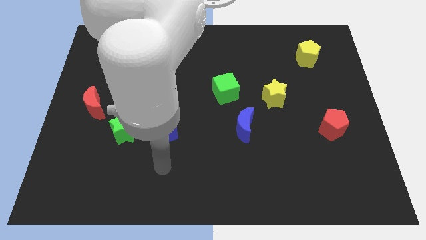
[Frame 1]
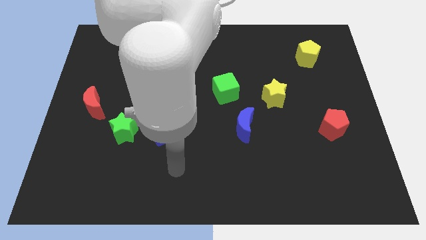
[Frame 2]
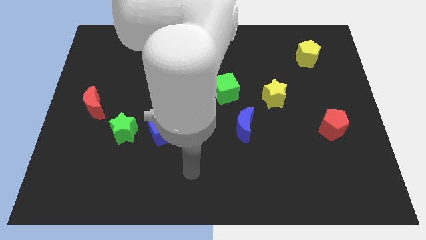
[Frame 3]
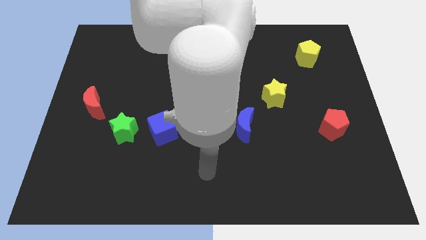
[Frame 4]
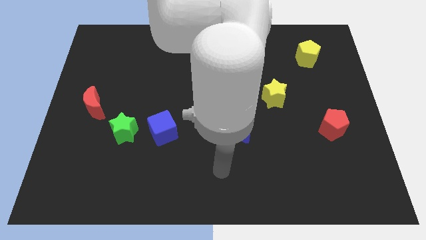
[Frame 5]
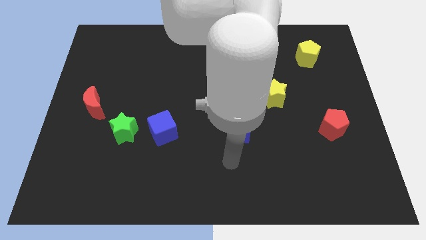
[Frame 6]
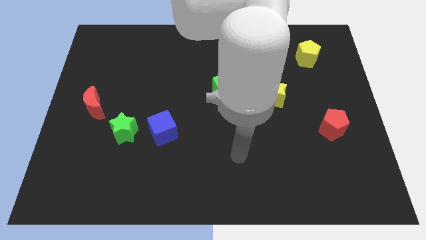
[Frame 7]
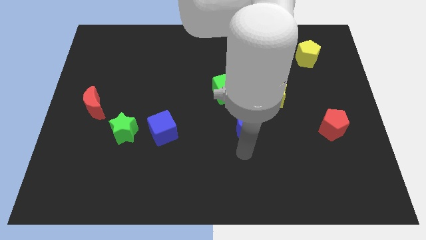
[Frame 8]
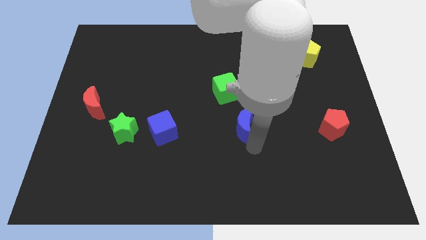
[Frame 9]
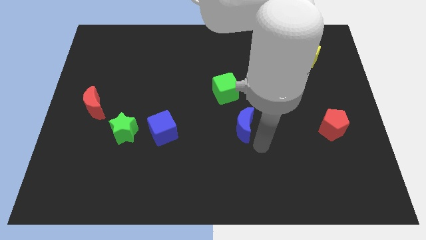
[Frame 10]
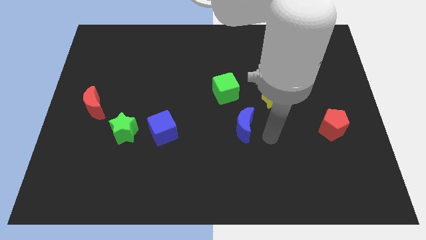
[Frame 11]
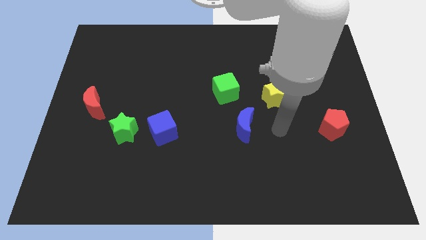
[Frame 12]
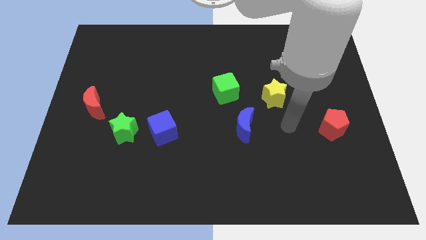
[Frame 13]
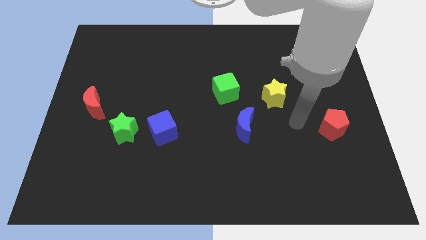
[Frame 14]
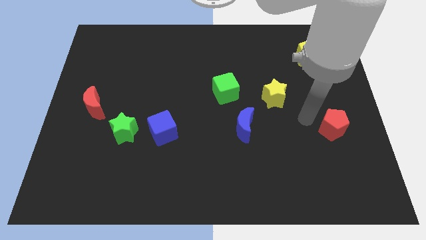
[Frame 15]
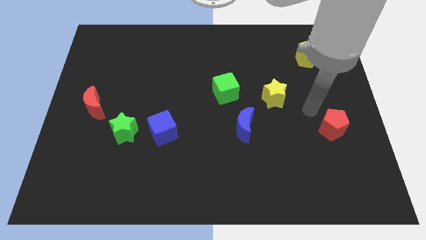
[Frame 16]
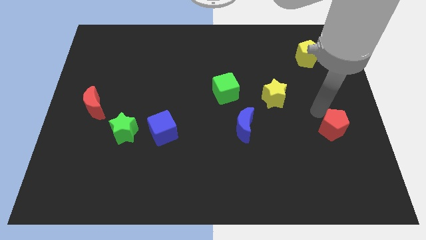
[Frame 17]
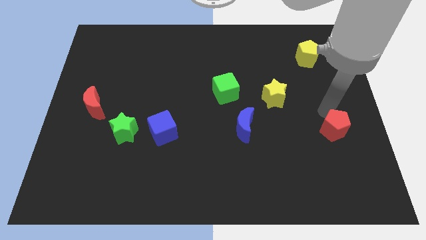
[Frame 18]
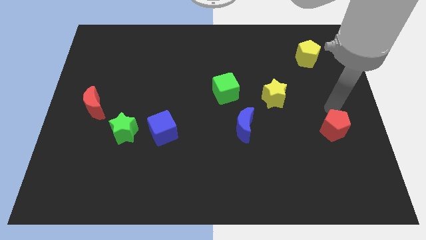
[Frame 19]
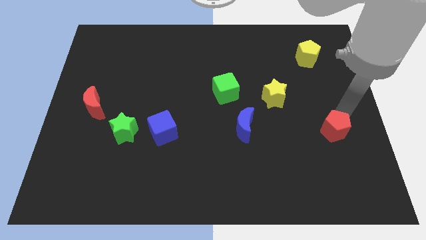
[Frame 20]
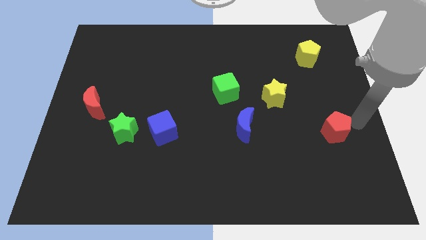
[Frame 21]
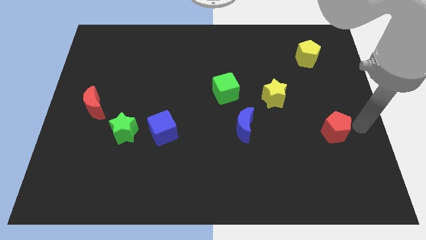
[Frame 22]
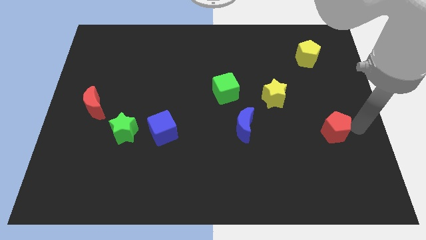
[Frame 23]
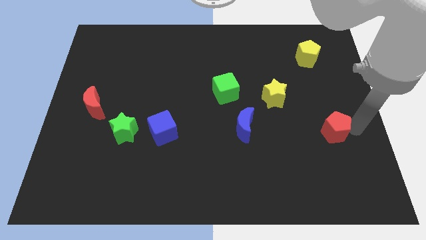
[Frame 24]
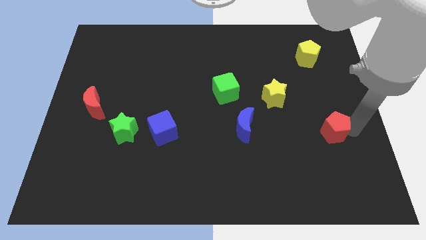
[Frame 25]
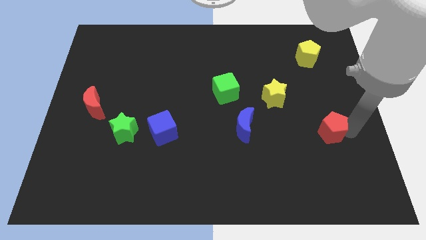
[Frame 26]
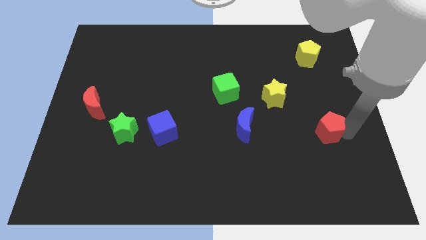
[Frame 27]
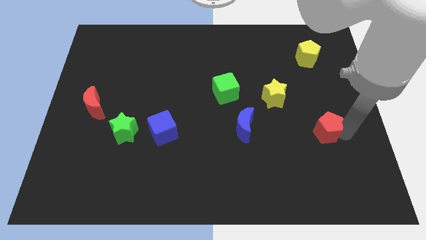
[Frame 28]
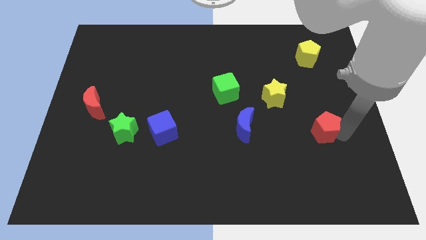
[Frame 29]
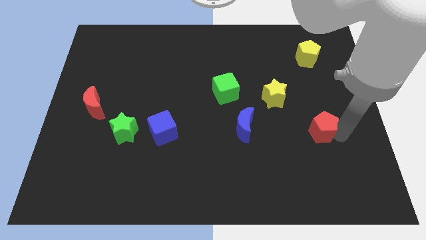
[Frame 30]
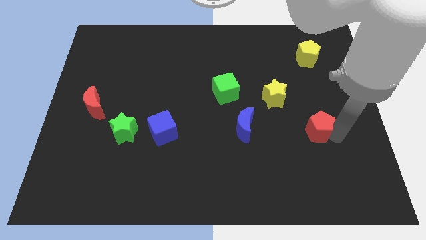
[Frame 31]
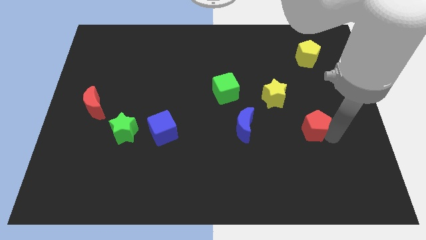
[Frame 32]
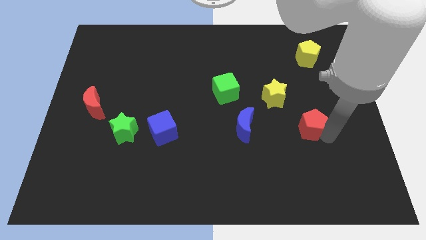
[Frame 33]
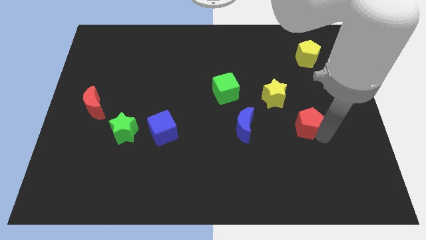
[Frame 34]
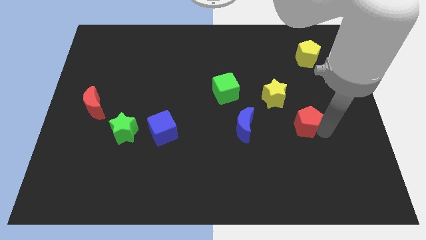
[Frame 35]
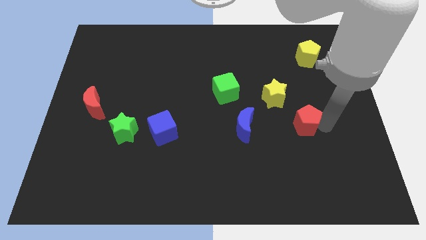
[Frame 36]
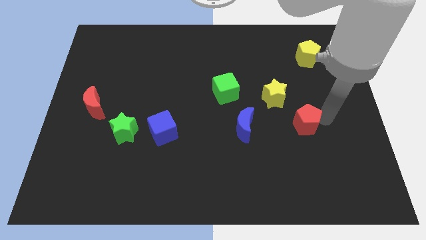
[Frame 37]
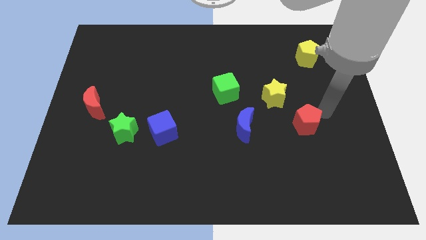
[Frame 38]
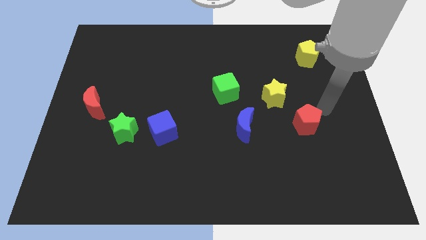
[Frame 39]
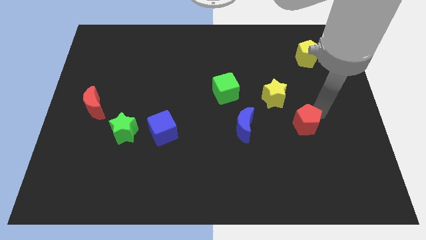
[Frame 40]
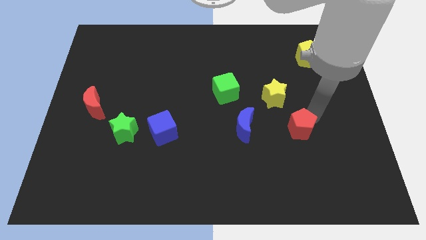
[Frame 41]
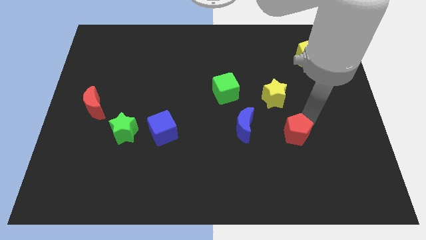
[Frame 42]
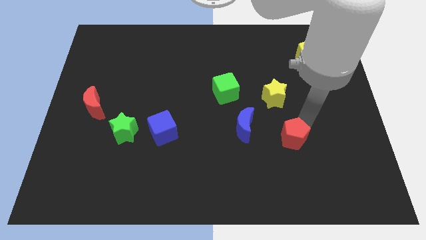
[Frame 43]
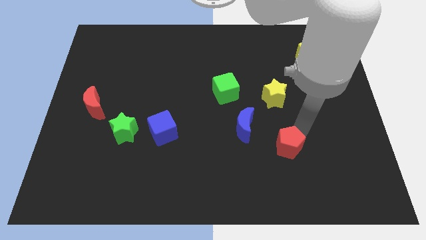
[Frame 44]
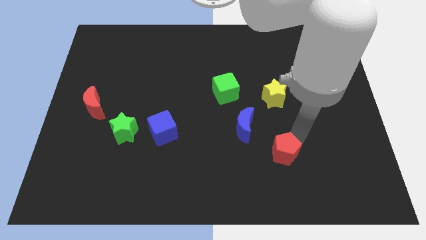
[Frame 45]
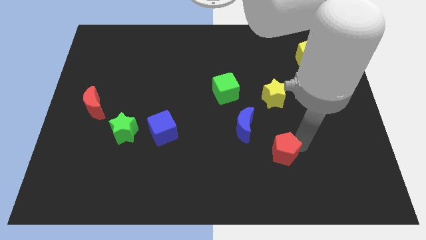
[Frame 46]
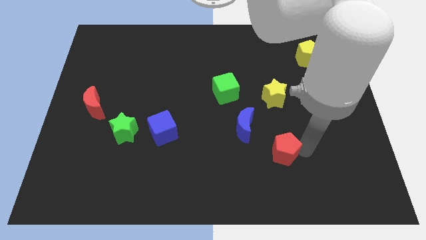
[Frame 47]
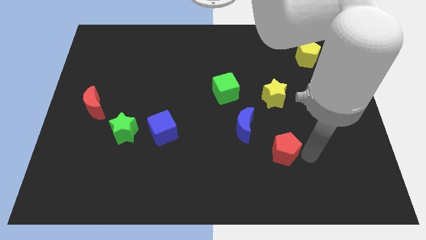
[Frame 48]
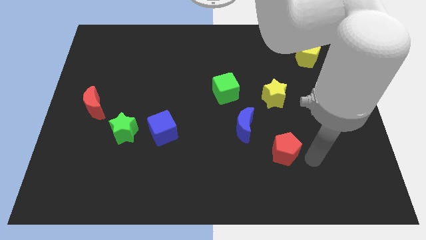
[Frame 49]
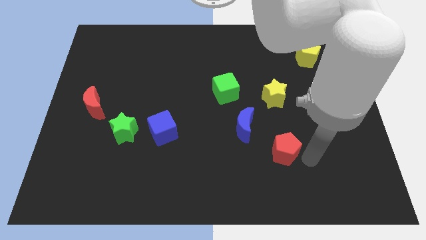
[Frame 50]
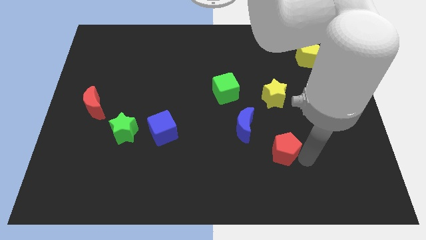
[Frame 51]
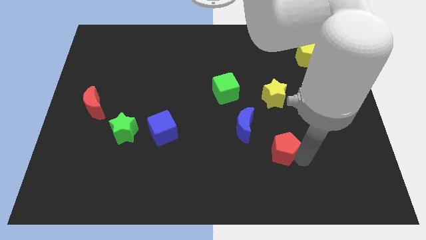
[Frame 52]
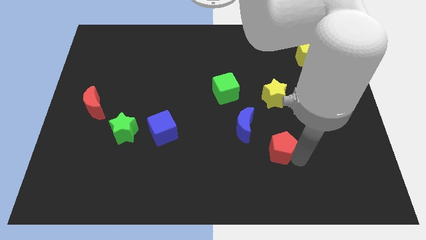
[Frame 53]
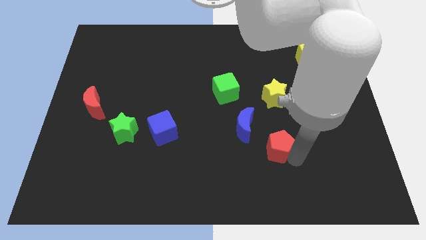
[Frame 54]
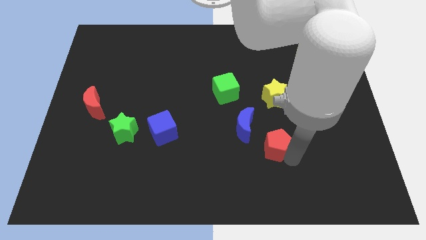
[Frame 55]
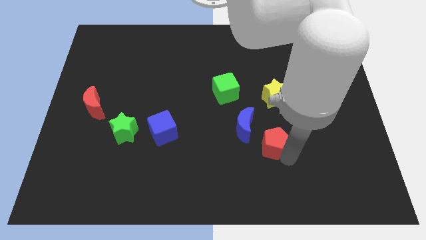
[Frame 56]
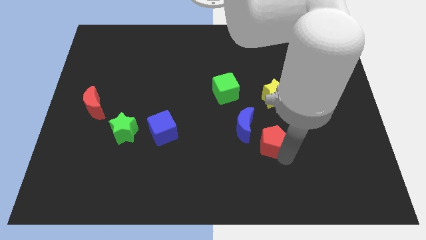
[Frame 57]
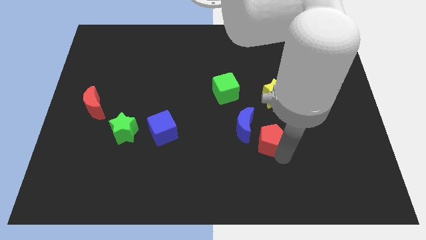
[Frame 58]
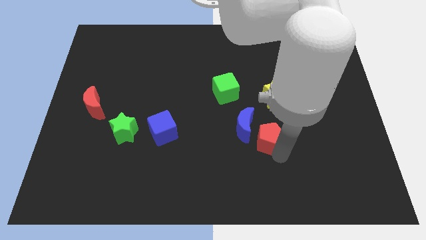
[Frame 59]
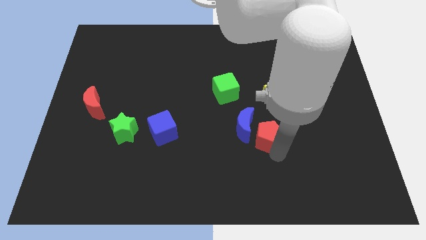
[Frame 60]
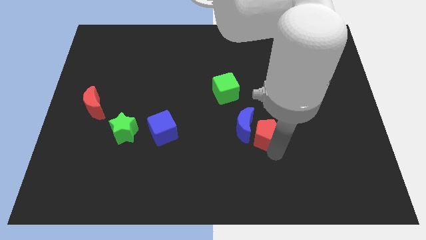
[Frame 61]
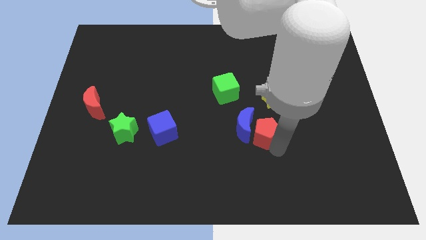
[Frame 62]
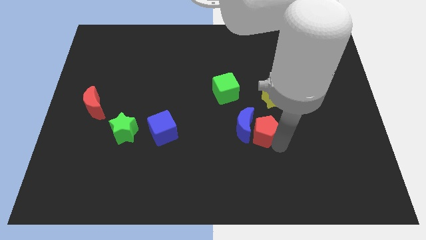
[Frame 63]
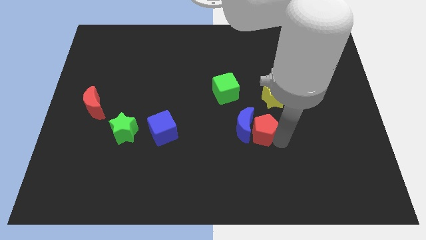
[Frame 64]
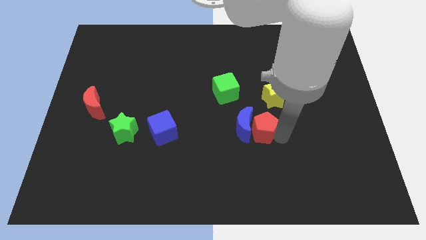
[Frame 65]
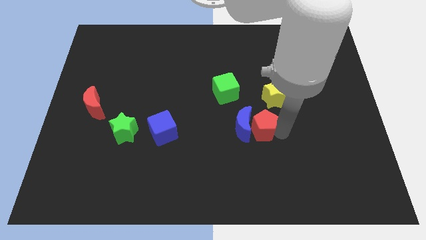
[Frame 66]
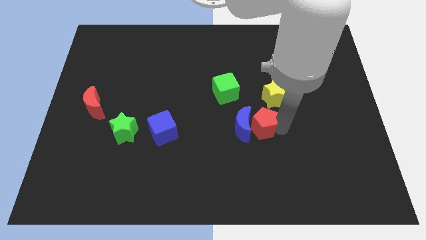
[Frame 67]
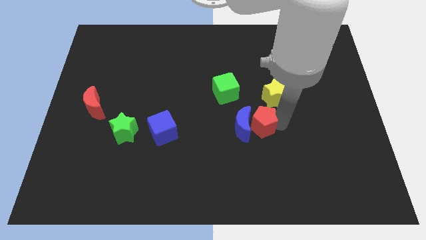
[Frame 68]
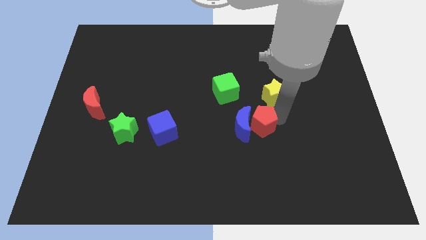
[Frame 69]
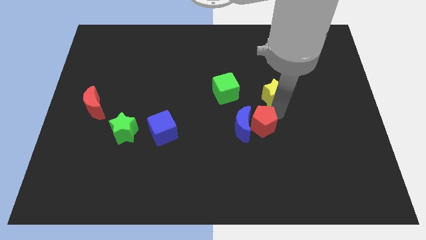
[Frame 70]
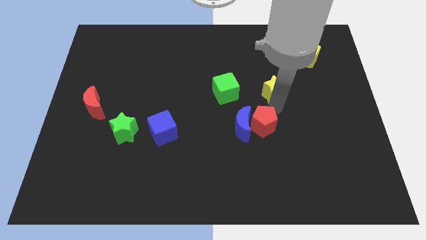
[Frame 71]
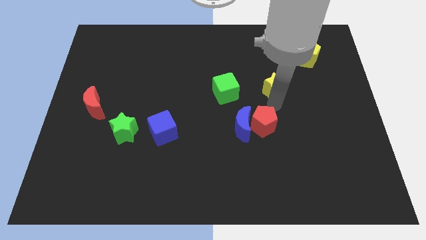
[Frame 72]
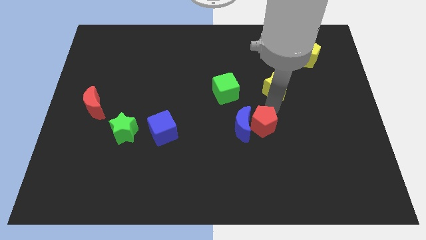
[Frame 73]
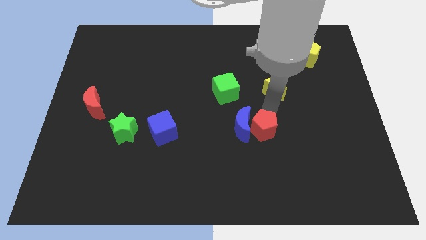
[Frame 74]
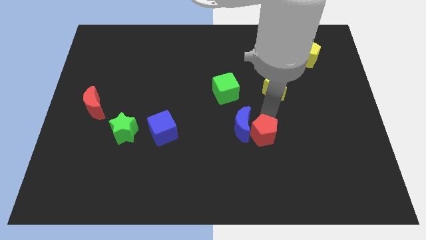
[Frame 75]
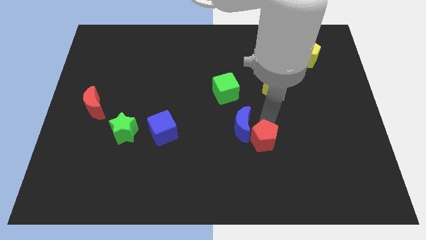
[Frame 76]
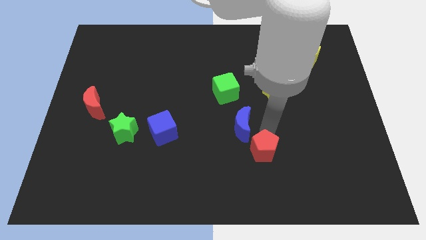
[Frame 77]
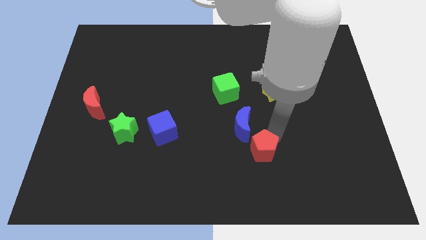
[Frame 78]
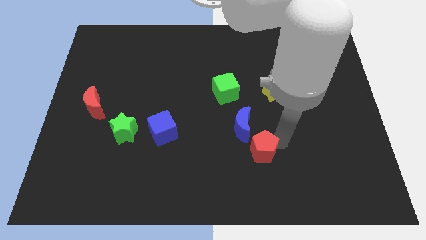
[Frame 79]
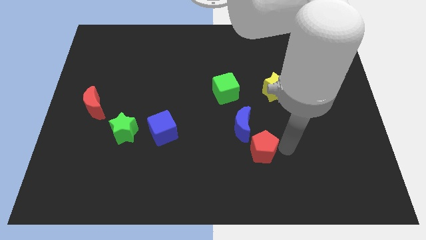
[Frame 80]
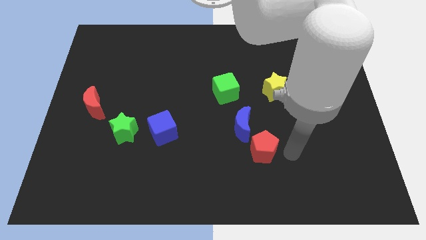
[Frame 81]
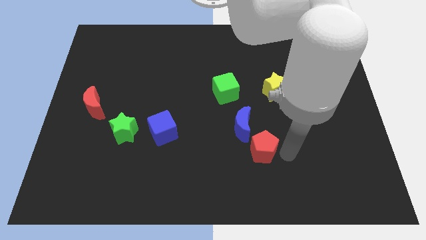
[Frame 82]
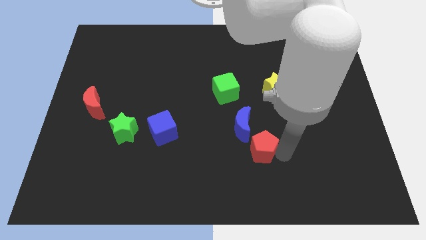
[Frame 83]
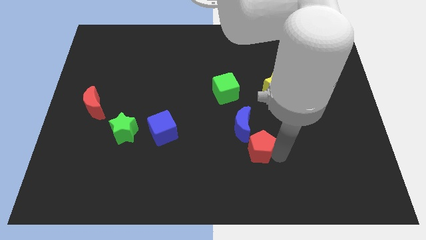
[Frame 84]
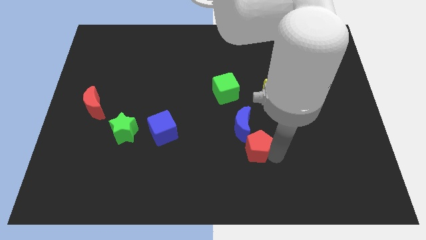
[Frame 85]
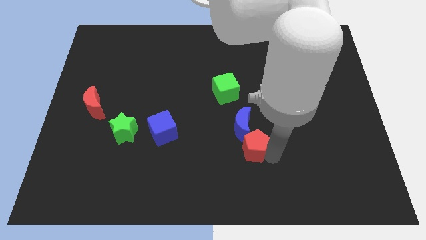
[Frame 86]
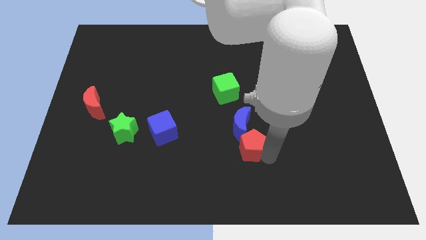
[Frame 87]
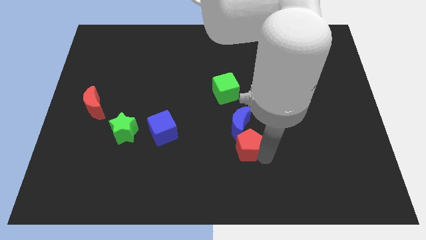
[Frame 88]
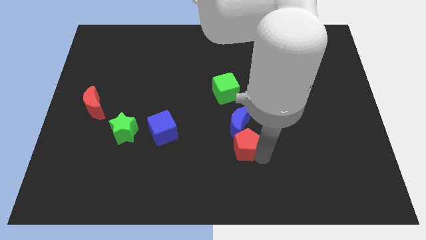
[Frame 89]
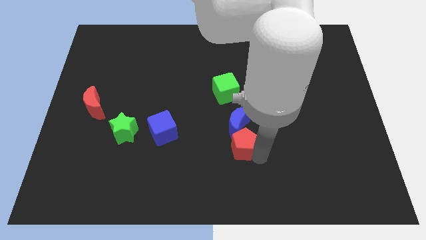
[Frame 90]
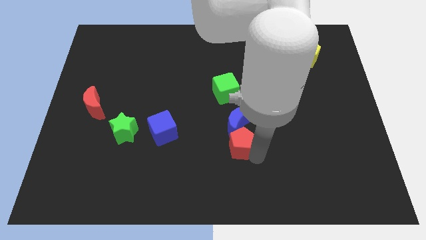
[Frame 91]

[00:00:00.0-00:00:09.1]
move the red pentagon to the left
